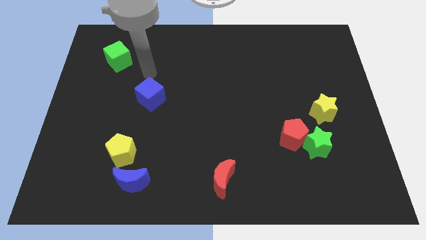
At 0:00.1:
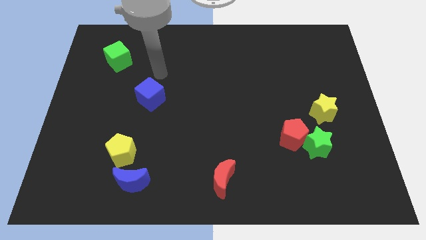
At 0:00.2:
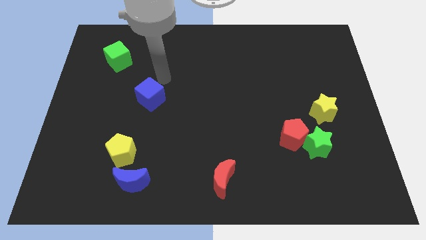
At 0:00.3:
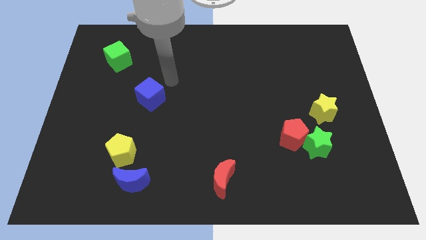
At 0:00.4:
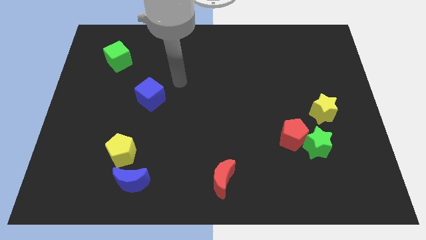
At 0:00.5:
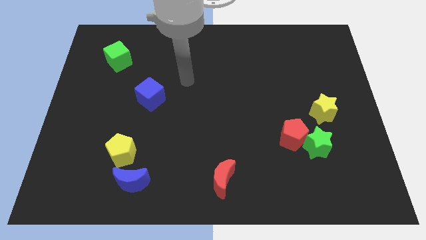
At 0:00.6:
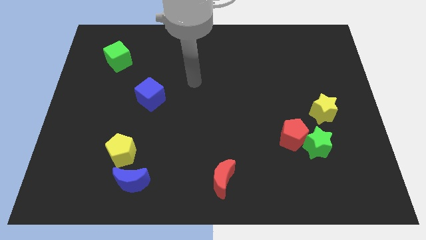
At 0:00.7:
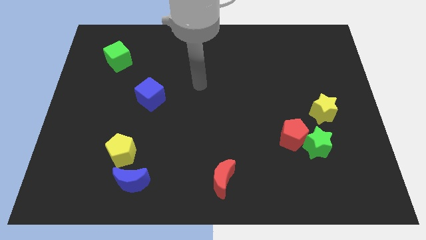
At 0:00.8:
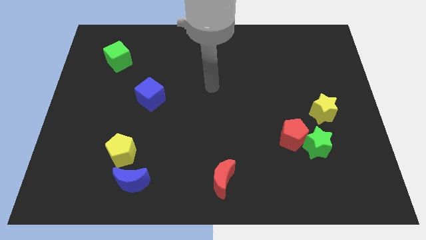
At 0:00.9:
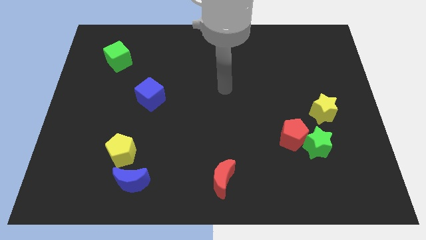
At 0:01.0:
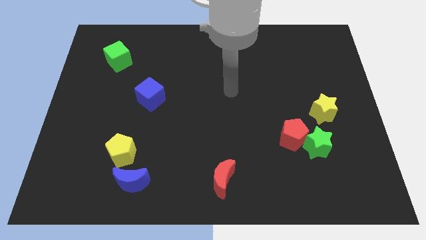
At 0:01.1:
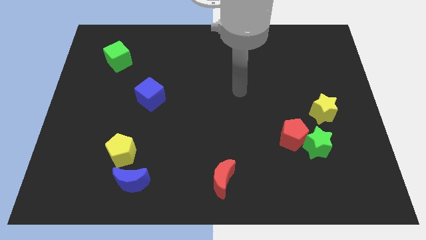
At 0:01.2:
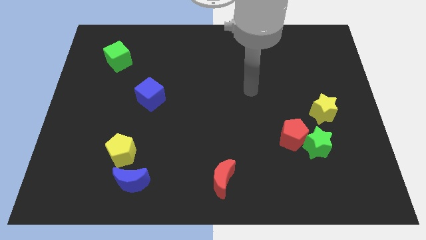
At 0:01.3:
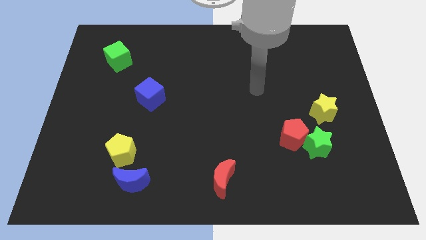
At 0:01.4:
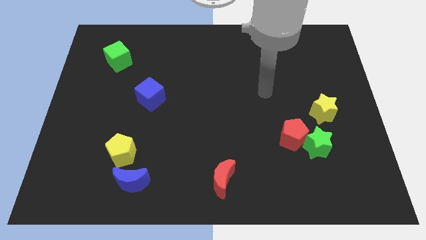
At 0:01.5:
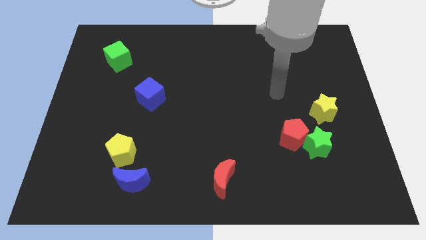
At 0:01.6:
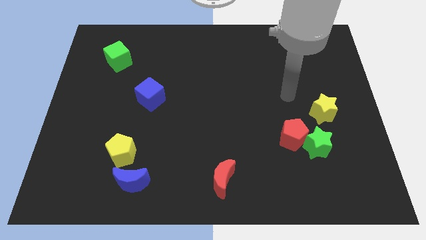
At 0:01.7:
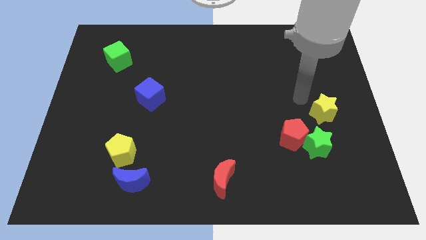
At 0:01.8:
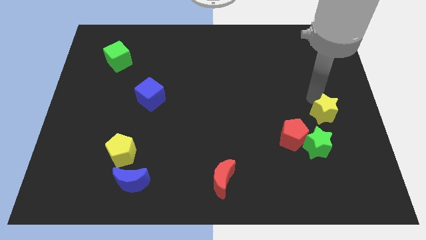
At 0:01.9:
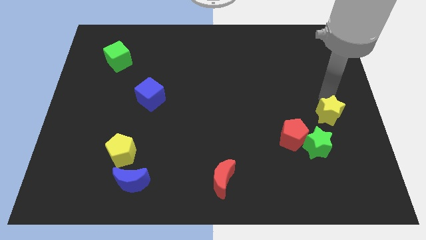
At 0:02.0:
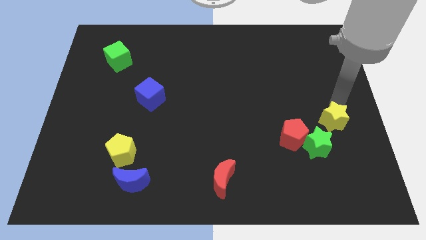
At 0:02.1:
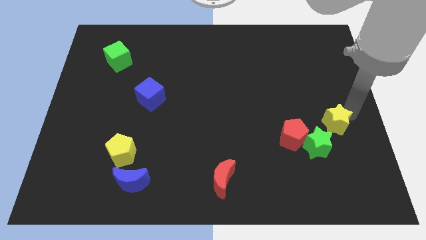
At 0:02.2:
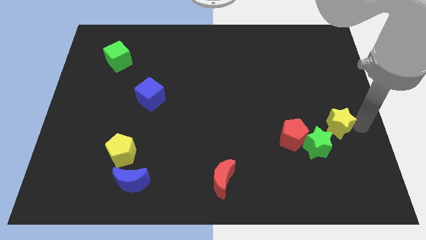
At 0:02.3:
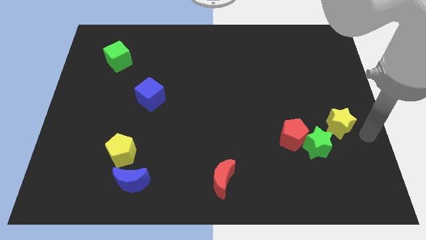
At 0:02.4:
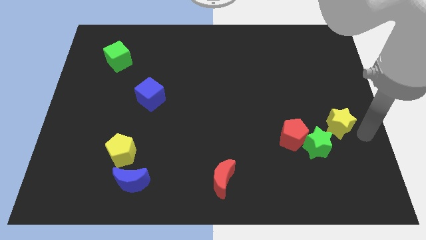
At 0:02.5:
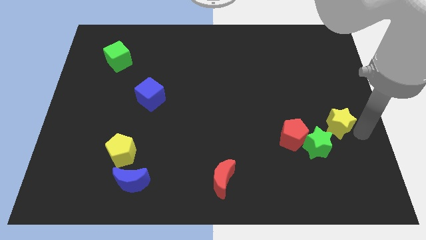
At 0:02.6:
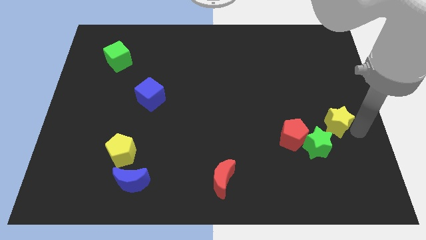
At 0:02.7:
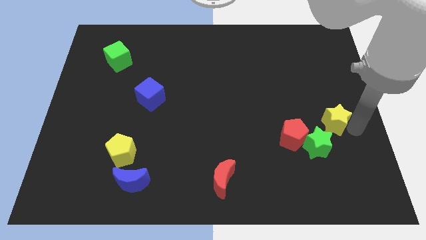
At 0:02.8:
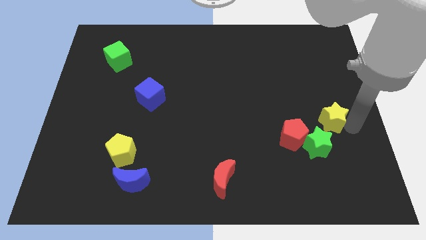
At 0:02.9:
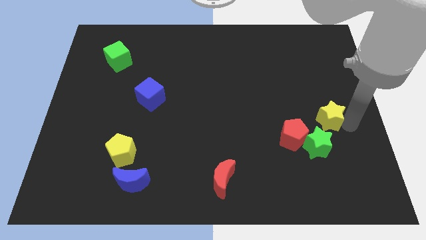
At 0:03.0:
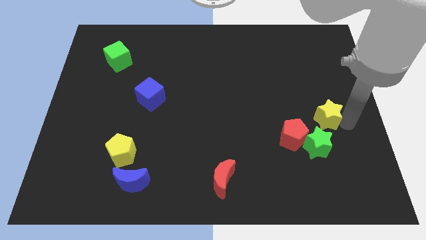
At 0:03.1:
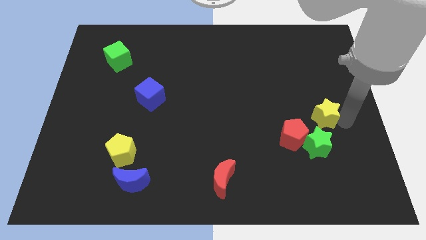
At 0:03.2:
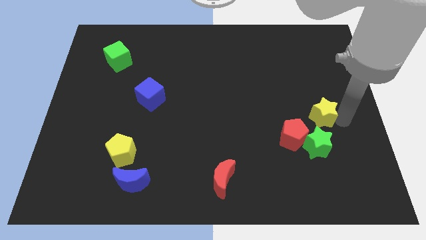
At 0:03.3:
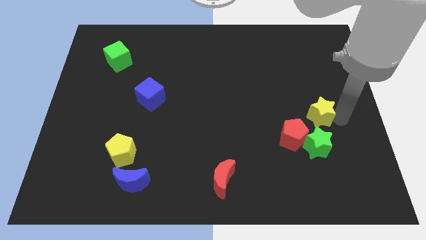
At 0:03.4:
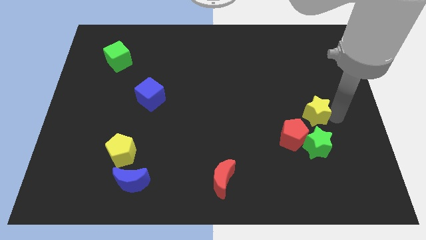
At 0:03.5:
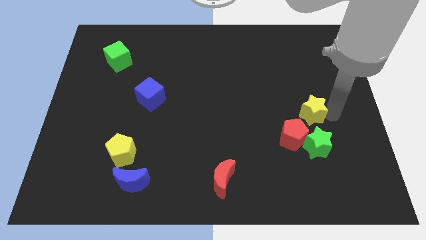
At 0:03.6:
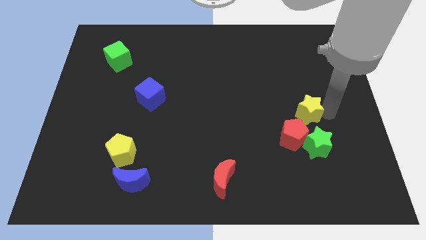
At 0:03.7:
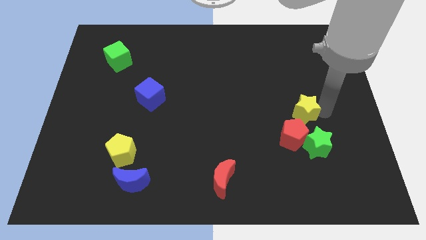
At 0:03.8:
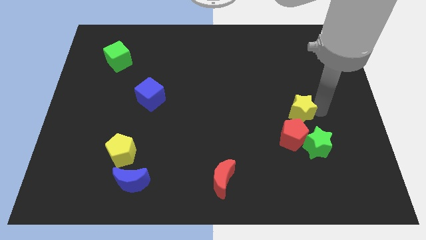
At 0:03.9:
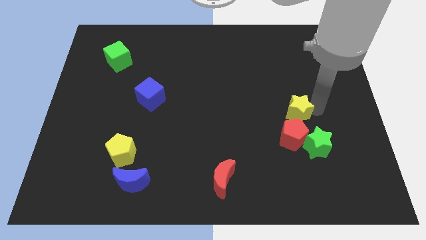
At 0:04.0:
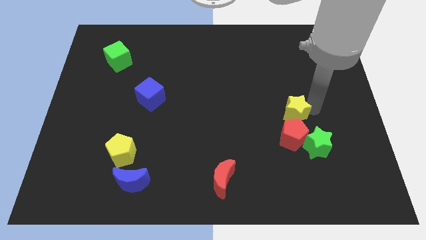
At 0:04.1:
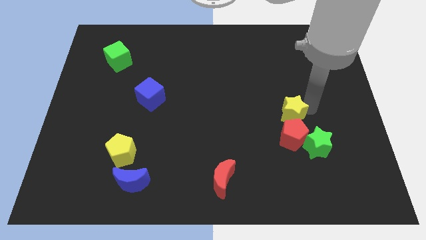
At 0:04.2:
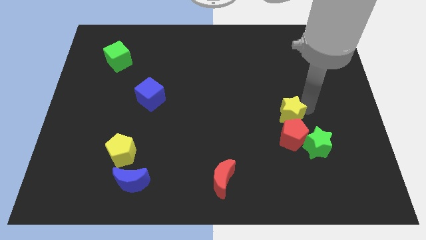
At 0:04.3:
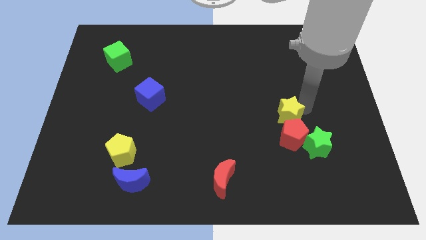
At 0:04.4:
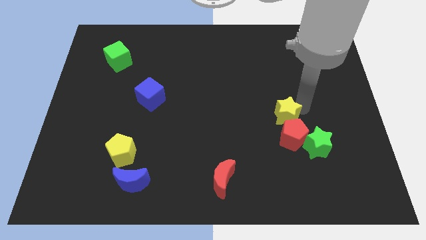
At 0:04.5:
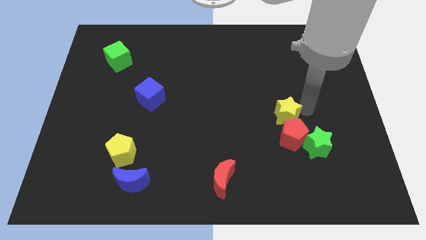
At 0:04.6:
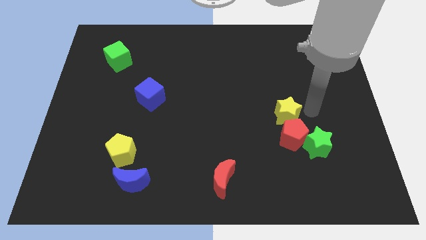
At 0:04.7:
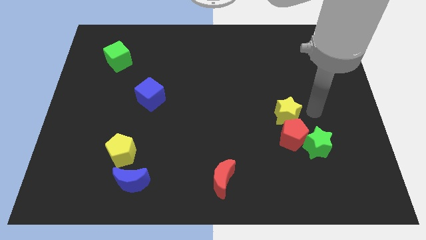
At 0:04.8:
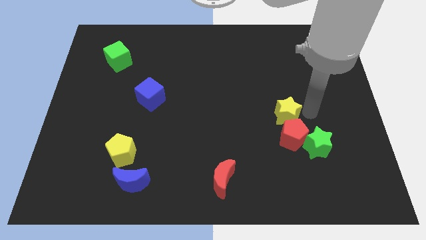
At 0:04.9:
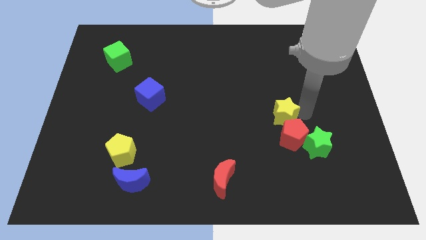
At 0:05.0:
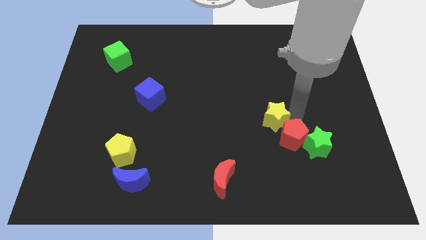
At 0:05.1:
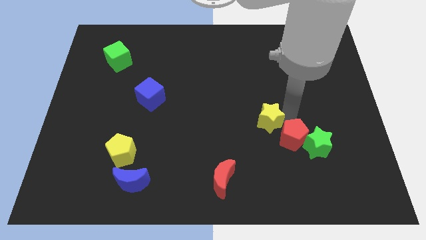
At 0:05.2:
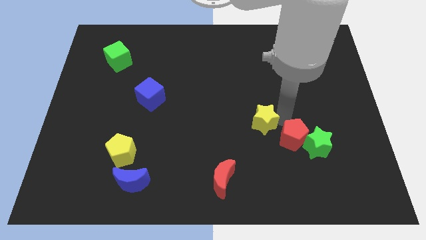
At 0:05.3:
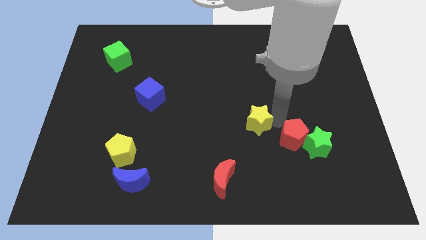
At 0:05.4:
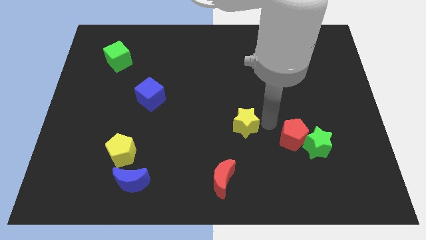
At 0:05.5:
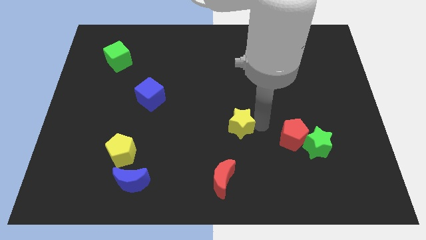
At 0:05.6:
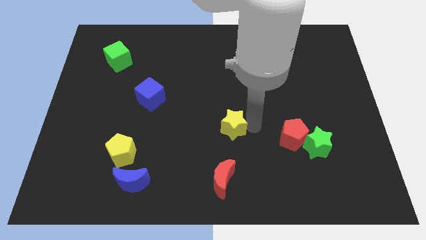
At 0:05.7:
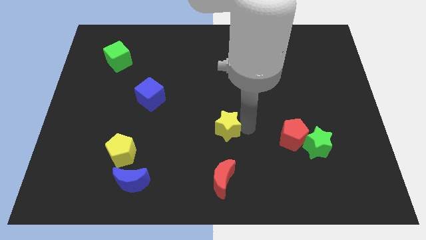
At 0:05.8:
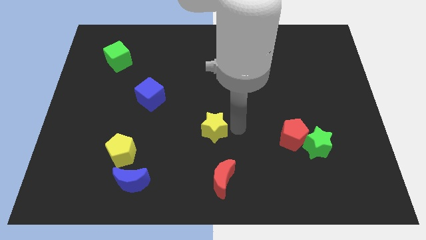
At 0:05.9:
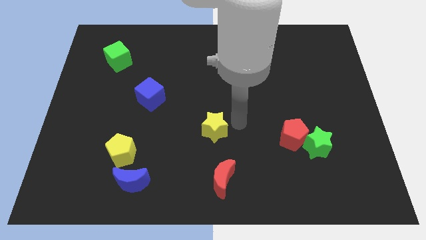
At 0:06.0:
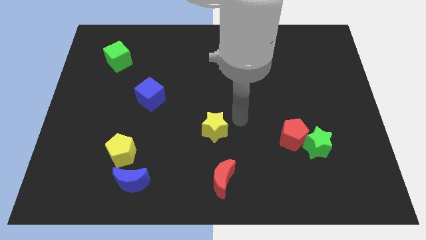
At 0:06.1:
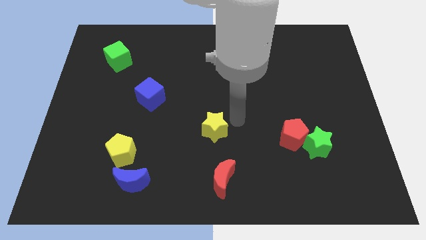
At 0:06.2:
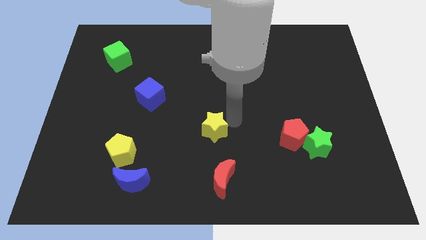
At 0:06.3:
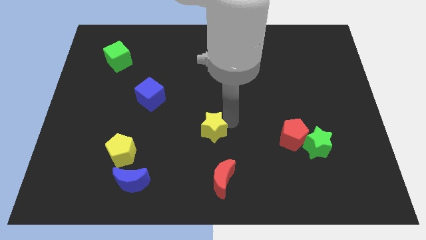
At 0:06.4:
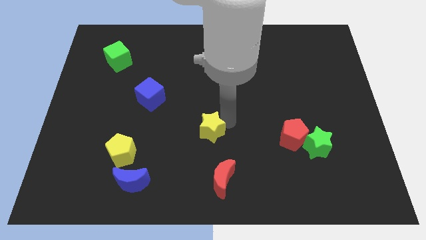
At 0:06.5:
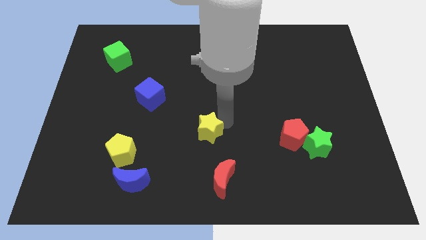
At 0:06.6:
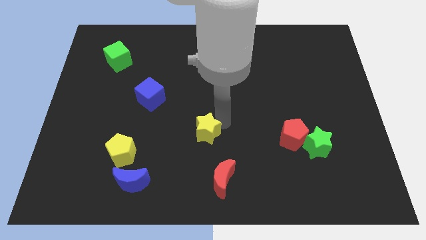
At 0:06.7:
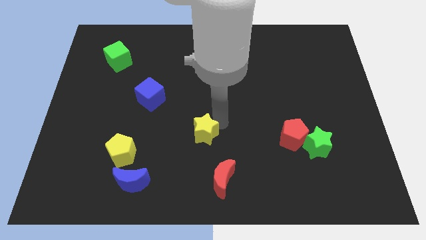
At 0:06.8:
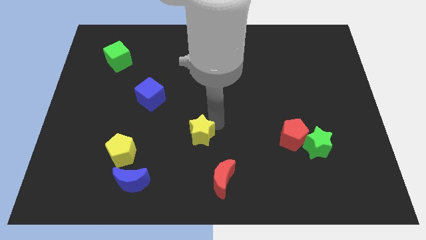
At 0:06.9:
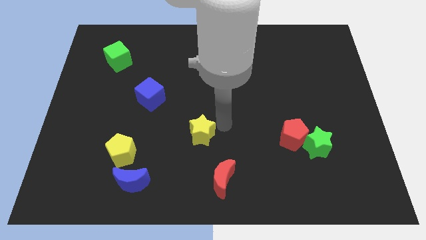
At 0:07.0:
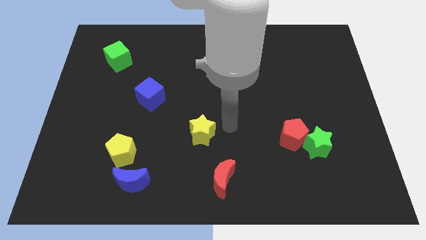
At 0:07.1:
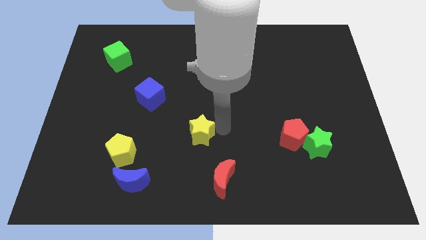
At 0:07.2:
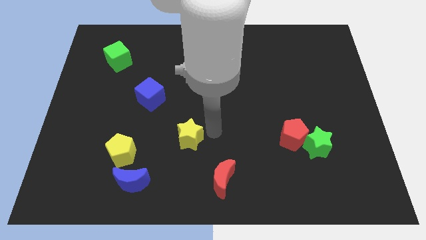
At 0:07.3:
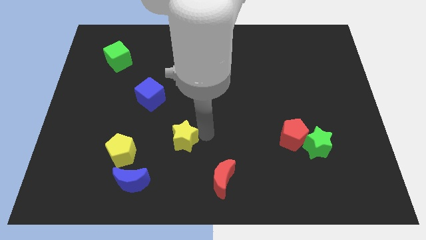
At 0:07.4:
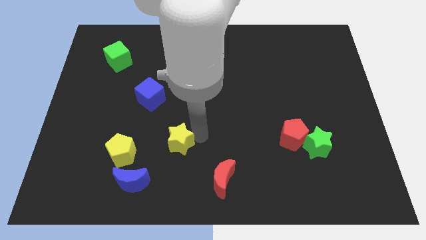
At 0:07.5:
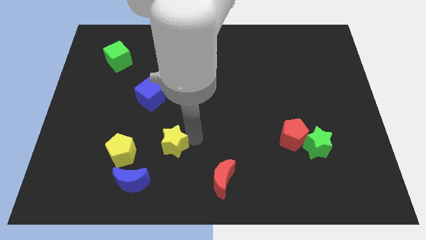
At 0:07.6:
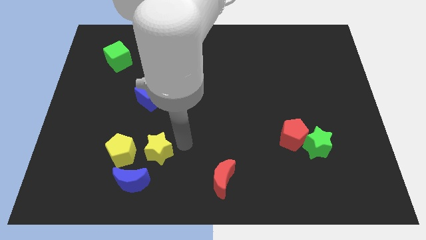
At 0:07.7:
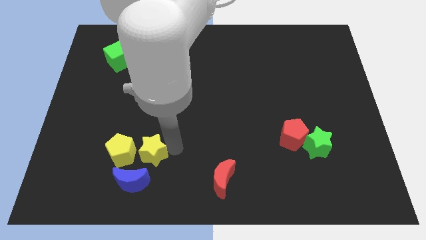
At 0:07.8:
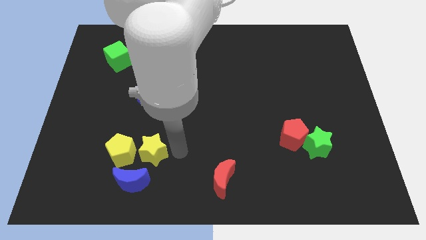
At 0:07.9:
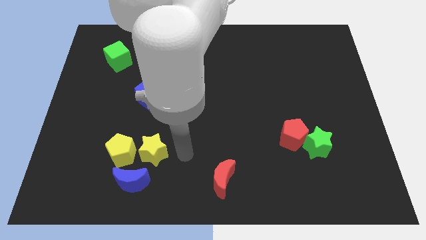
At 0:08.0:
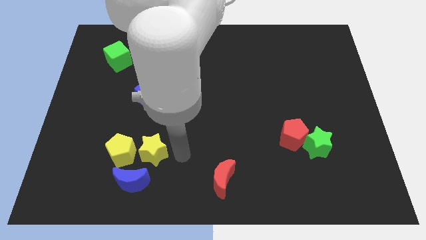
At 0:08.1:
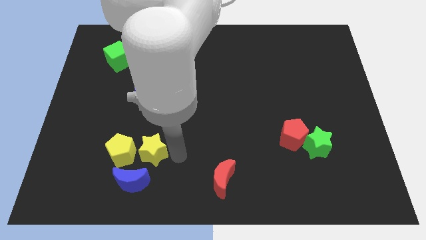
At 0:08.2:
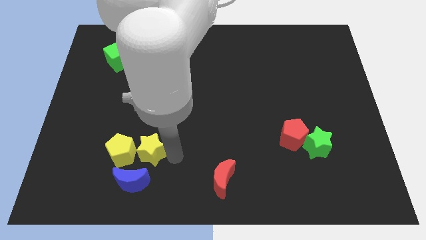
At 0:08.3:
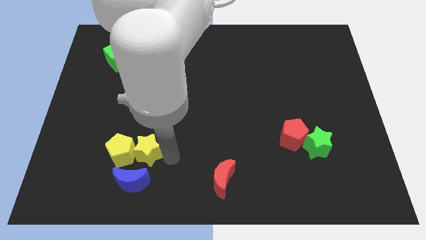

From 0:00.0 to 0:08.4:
put the yellow star next to the yellow pentagon
